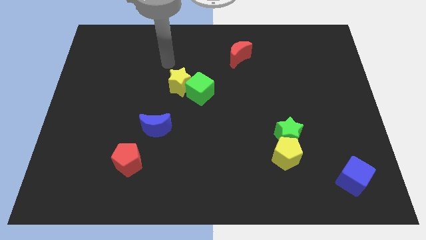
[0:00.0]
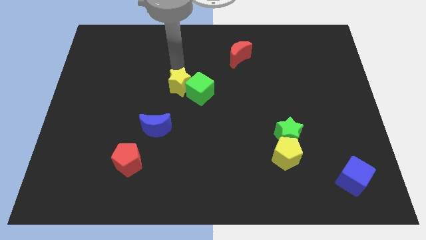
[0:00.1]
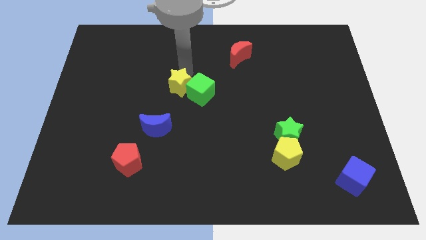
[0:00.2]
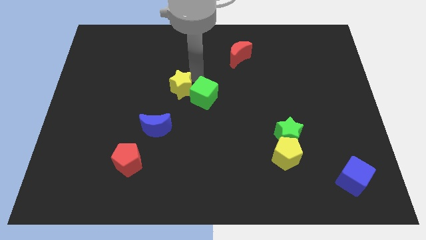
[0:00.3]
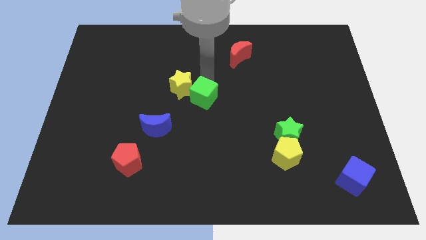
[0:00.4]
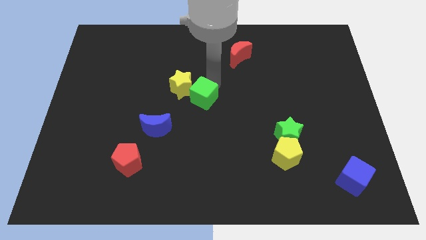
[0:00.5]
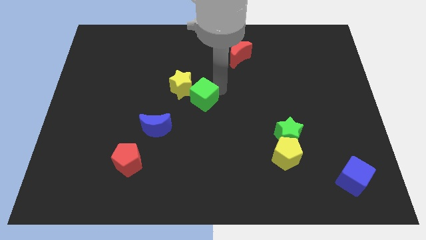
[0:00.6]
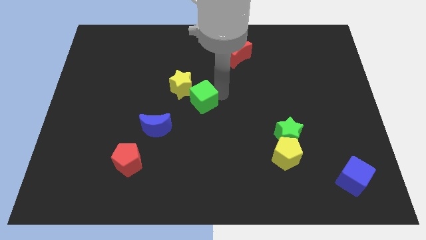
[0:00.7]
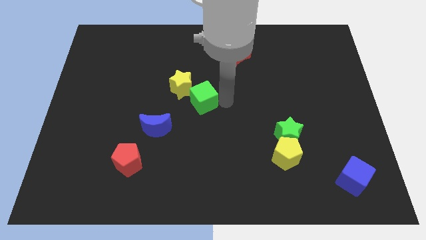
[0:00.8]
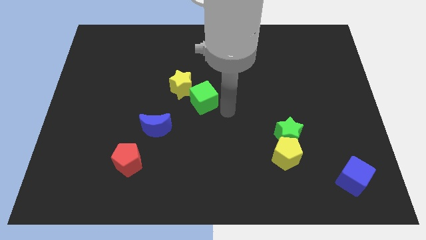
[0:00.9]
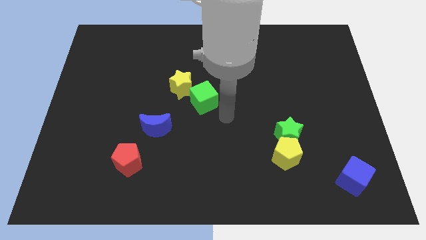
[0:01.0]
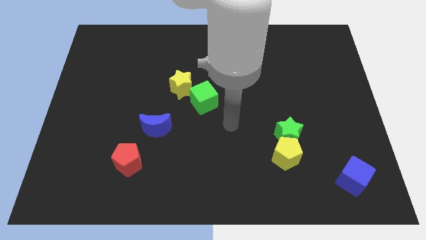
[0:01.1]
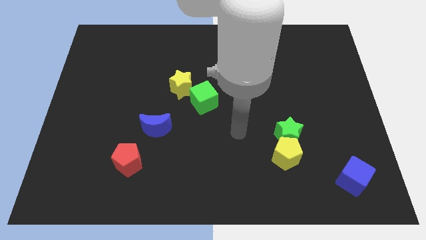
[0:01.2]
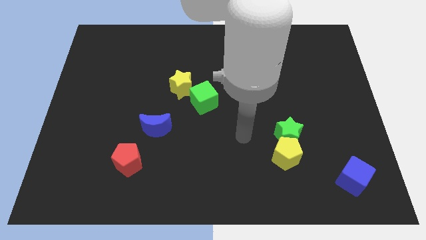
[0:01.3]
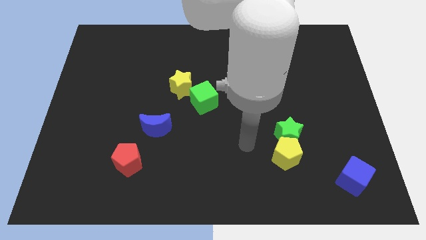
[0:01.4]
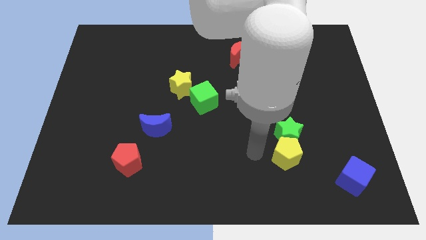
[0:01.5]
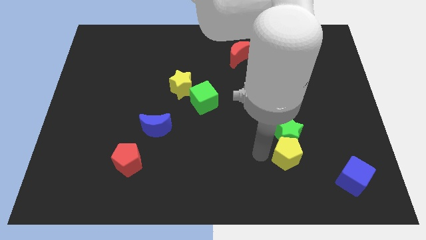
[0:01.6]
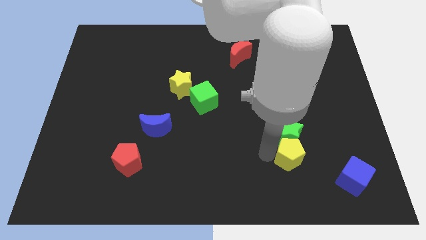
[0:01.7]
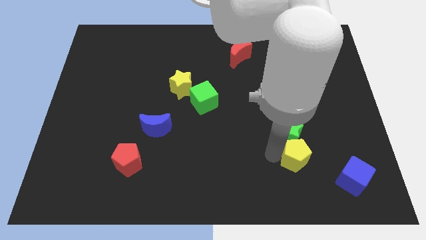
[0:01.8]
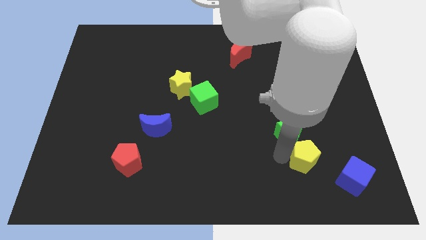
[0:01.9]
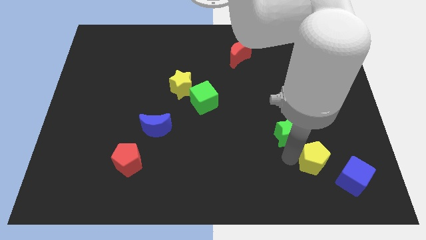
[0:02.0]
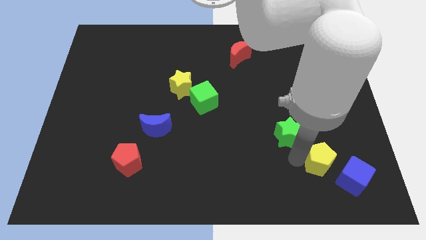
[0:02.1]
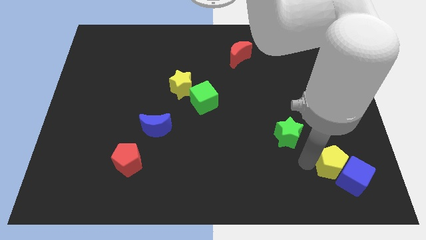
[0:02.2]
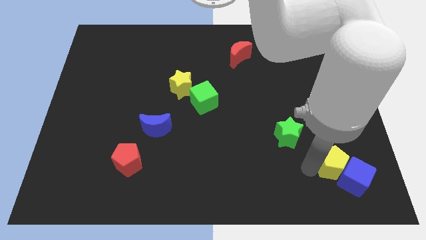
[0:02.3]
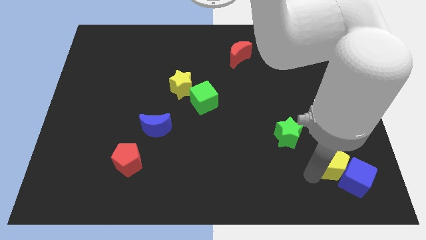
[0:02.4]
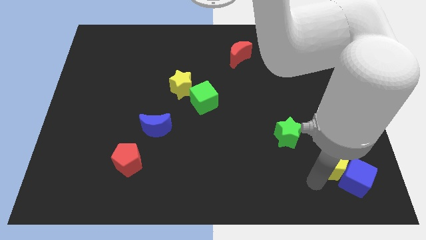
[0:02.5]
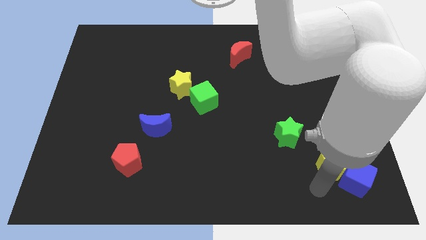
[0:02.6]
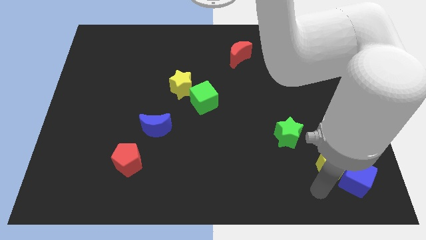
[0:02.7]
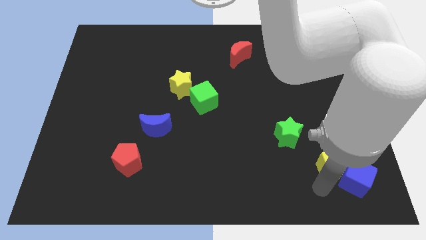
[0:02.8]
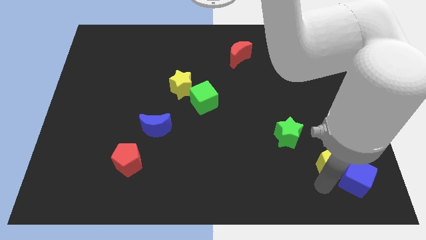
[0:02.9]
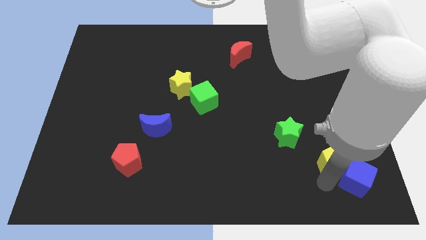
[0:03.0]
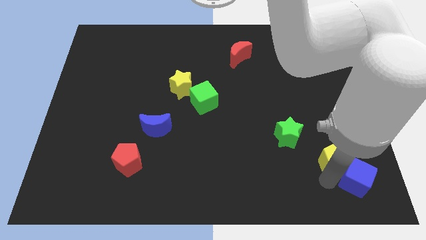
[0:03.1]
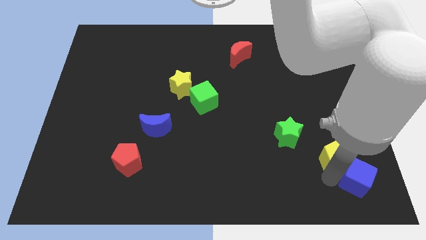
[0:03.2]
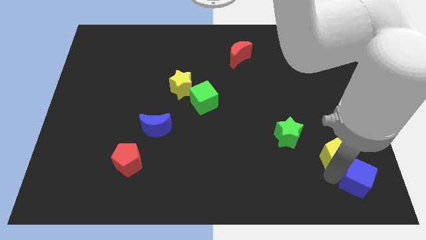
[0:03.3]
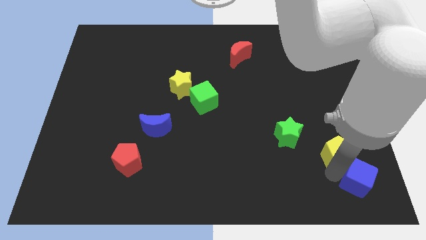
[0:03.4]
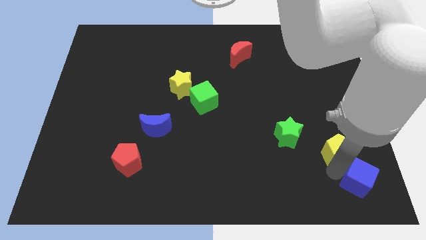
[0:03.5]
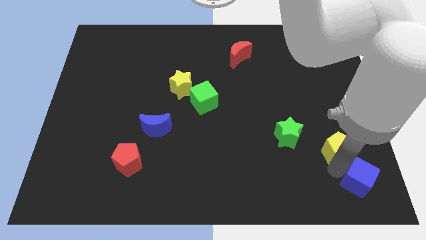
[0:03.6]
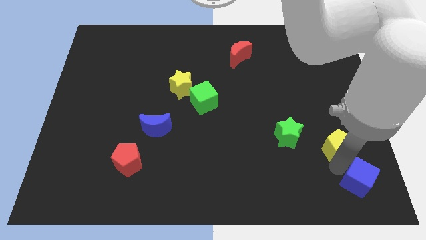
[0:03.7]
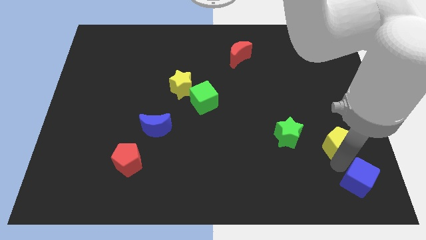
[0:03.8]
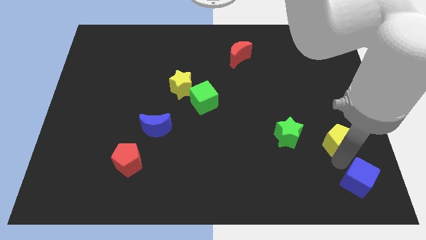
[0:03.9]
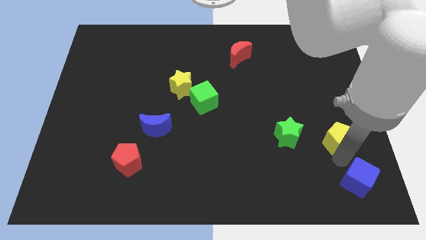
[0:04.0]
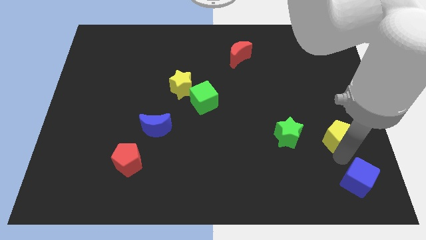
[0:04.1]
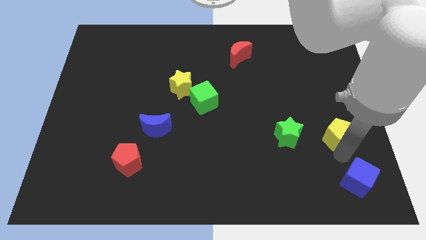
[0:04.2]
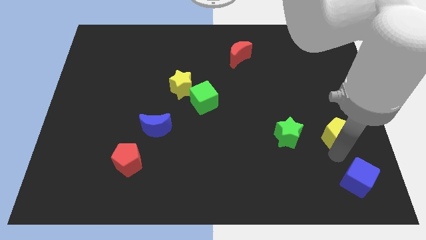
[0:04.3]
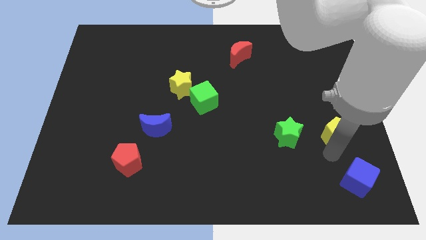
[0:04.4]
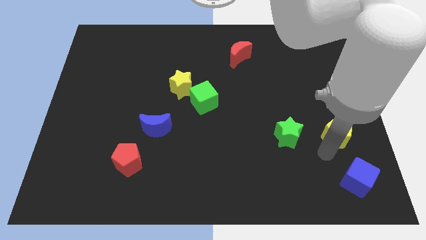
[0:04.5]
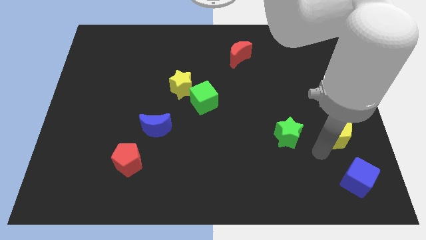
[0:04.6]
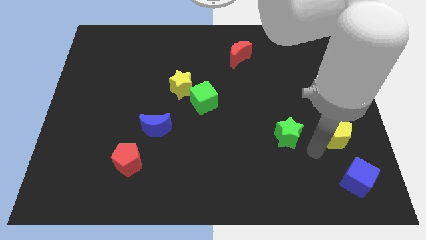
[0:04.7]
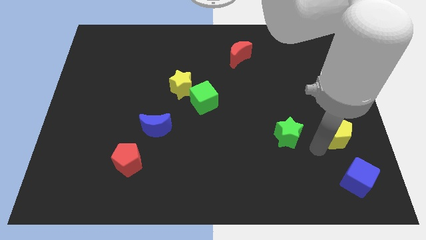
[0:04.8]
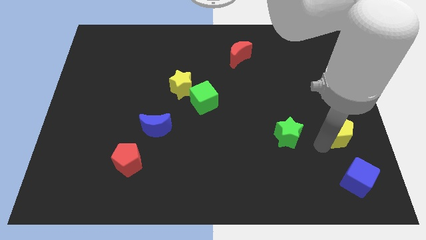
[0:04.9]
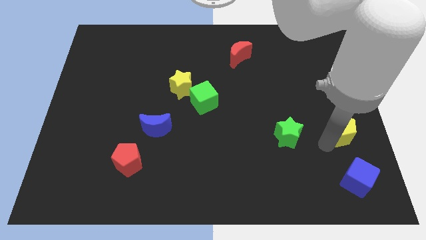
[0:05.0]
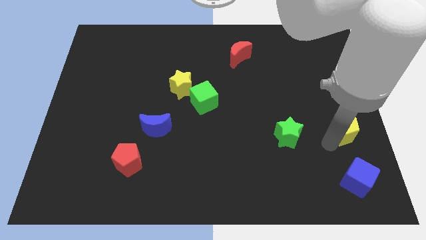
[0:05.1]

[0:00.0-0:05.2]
push the yellow pentagon to the right side

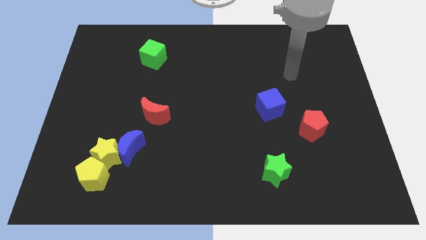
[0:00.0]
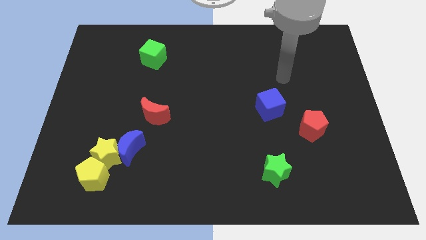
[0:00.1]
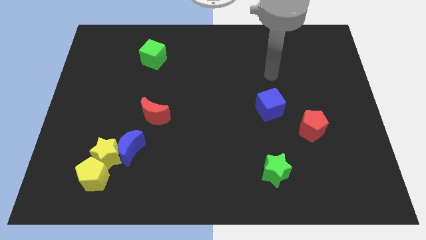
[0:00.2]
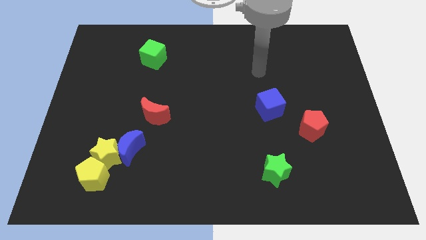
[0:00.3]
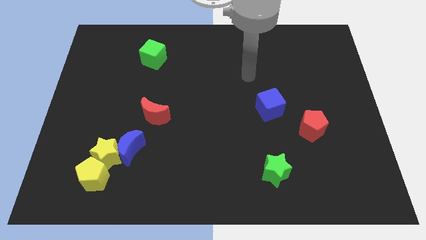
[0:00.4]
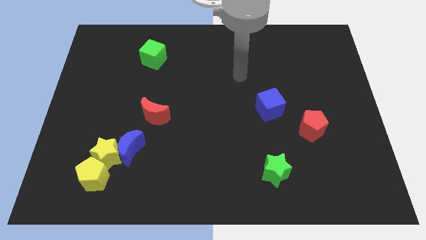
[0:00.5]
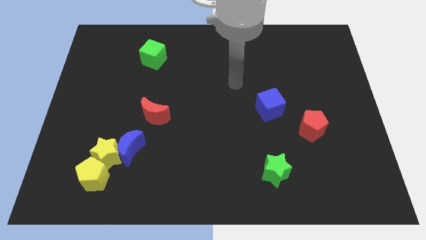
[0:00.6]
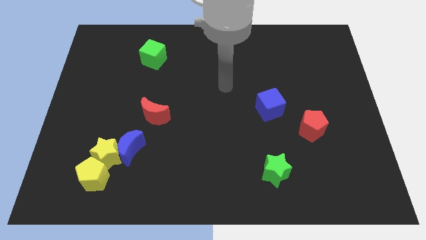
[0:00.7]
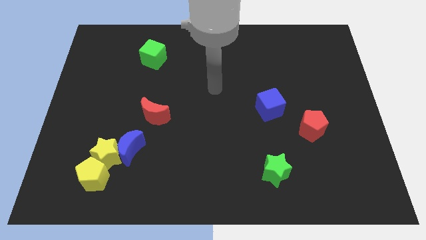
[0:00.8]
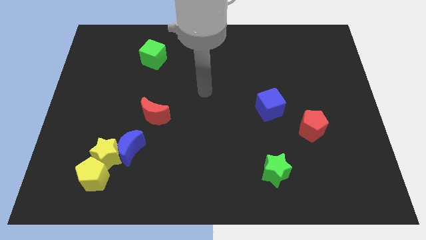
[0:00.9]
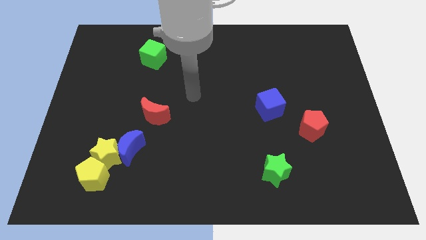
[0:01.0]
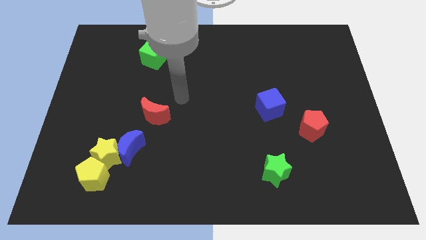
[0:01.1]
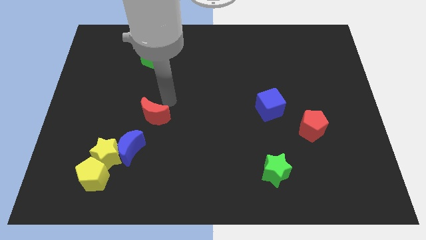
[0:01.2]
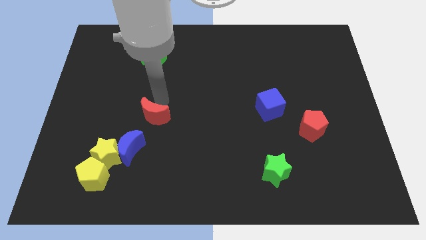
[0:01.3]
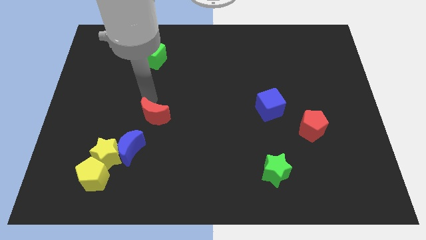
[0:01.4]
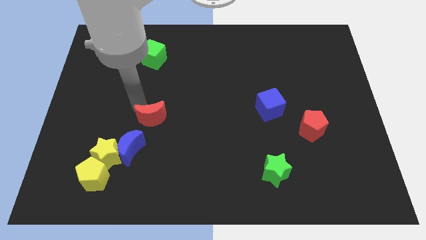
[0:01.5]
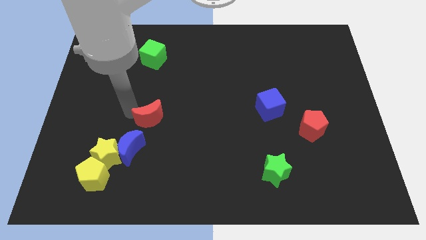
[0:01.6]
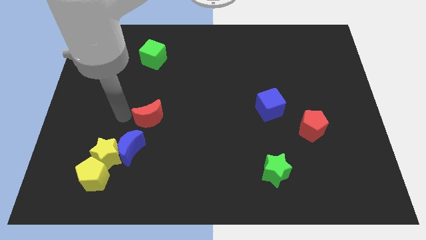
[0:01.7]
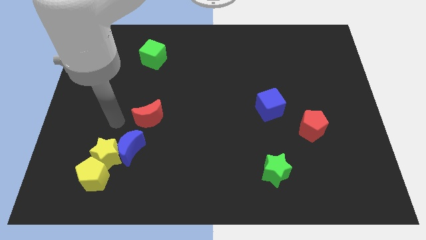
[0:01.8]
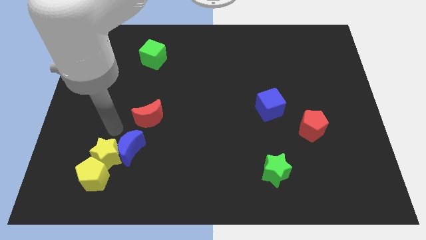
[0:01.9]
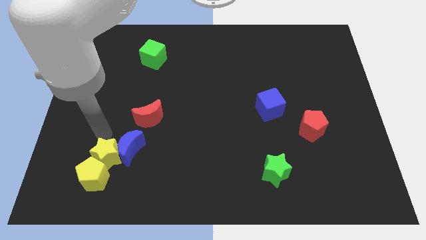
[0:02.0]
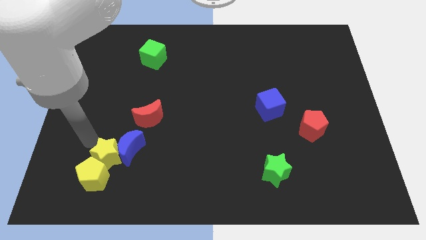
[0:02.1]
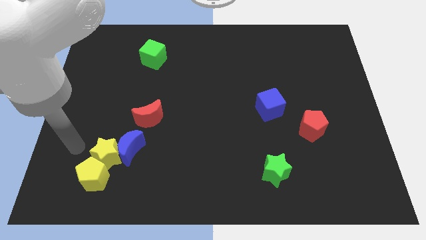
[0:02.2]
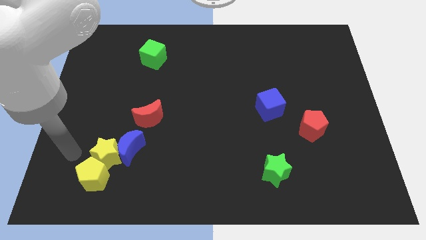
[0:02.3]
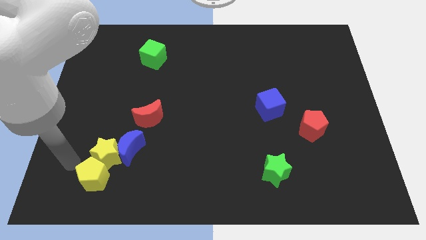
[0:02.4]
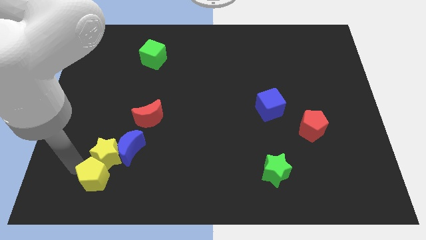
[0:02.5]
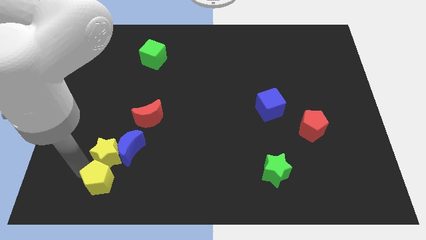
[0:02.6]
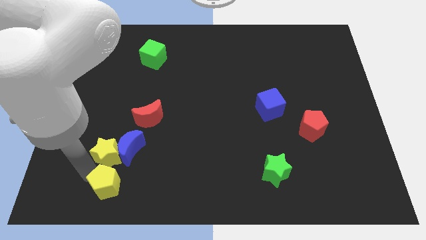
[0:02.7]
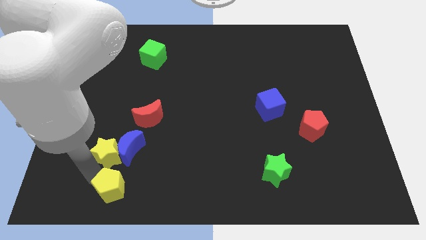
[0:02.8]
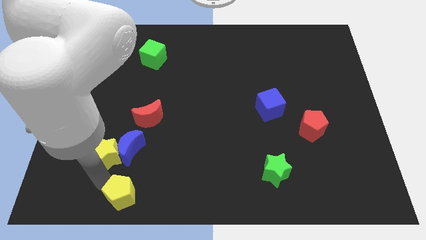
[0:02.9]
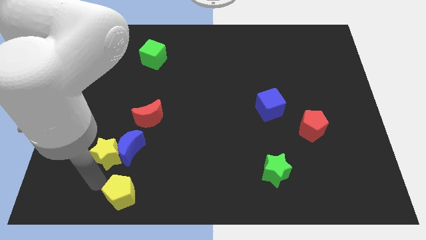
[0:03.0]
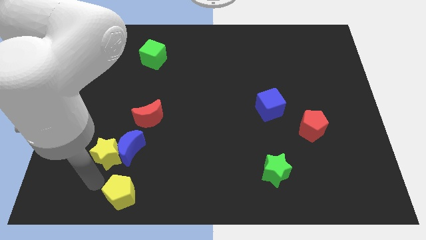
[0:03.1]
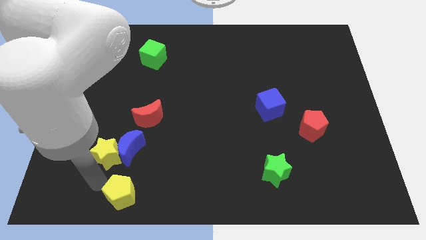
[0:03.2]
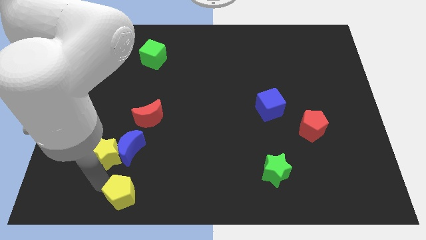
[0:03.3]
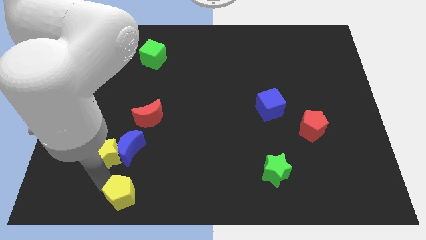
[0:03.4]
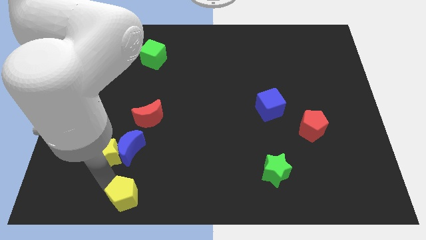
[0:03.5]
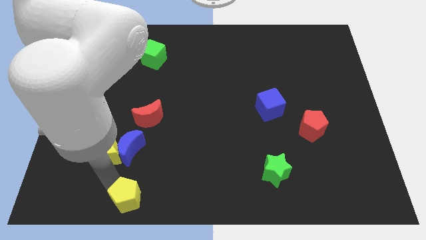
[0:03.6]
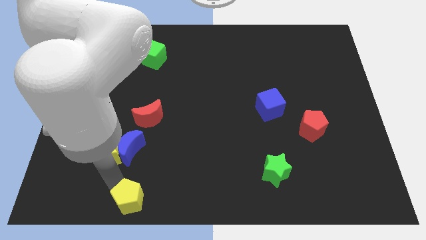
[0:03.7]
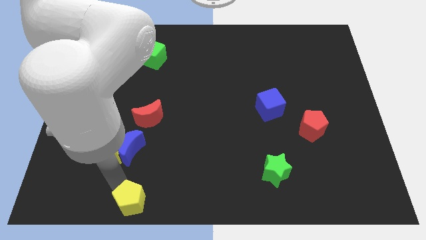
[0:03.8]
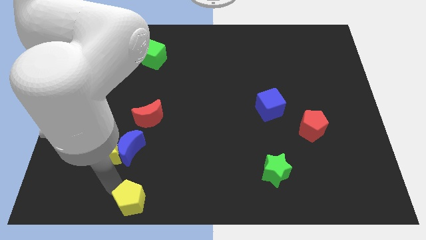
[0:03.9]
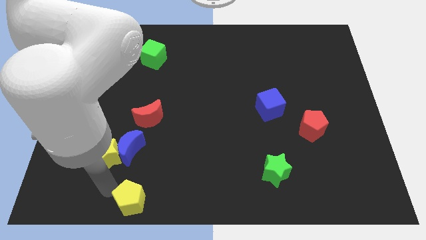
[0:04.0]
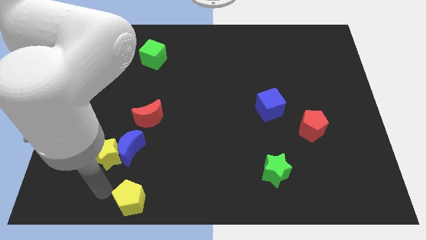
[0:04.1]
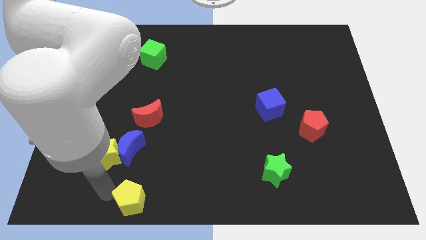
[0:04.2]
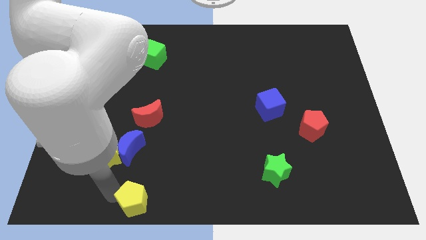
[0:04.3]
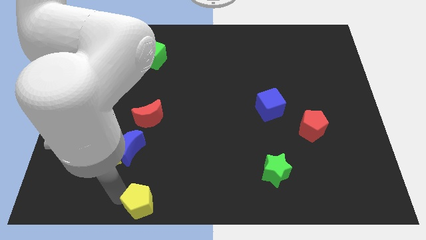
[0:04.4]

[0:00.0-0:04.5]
move the yellow pentagon to the bottom
